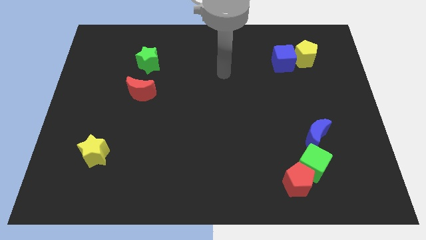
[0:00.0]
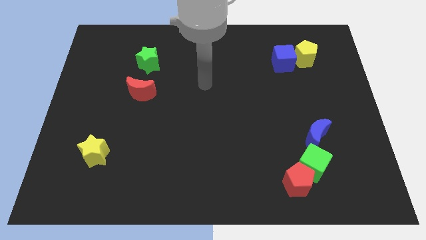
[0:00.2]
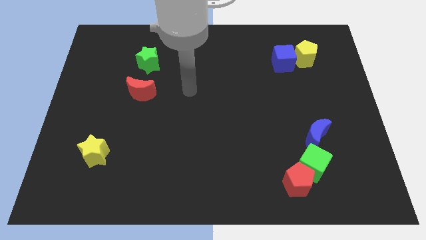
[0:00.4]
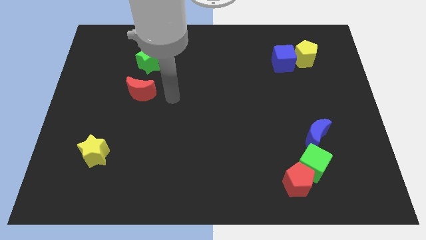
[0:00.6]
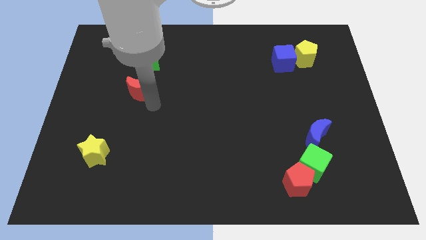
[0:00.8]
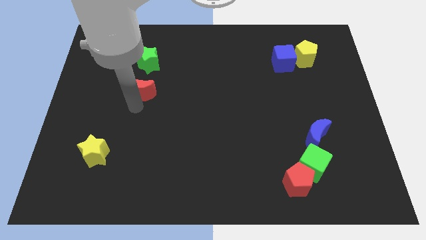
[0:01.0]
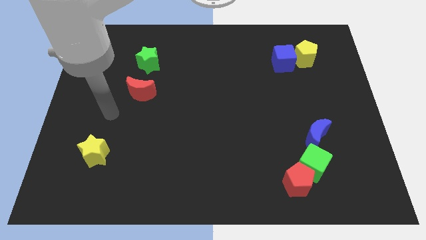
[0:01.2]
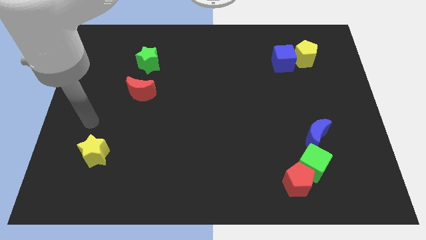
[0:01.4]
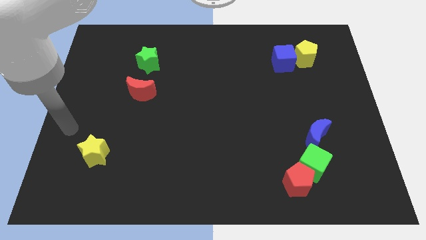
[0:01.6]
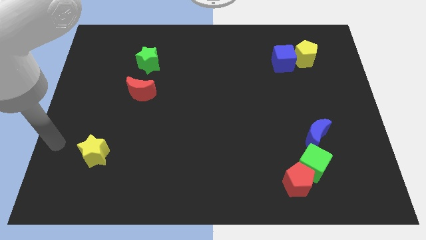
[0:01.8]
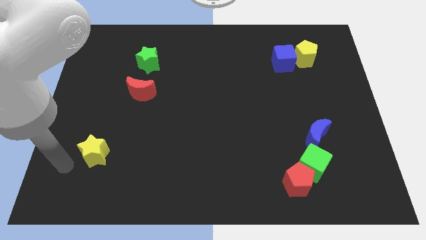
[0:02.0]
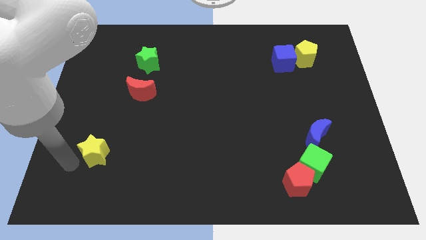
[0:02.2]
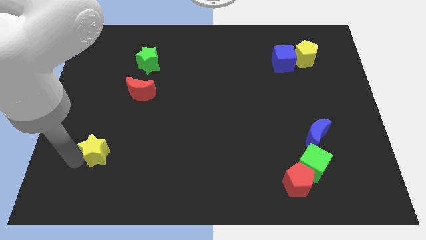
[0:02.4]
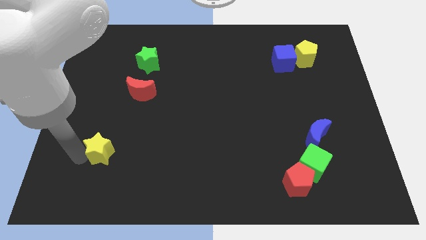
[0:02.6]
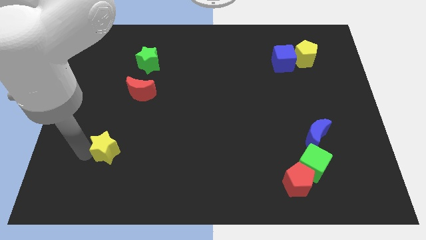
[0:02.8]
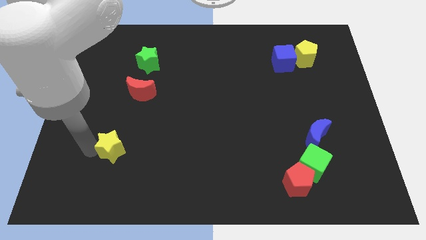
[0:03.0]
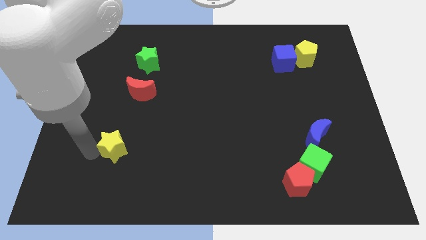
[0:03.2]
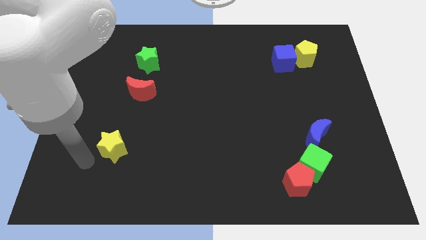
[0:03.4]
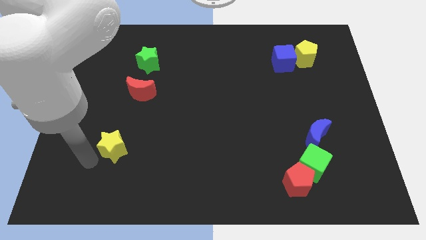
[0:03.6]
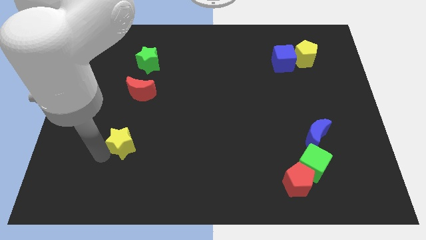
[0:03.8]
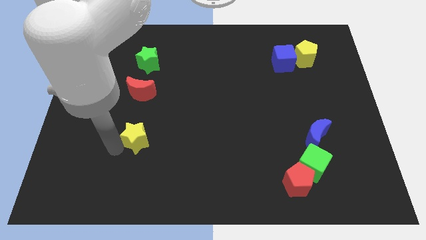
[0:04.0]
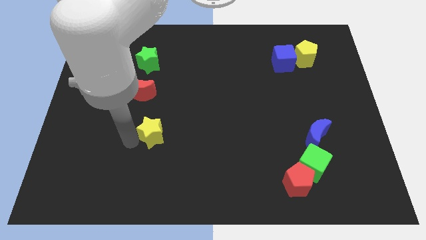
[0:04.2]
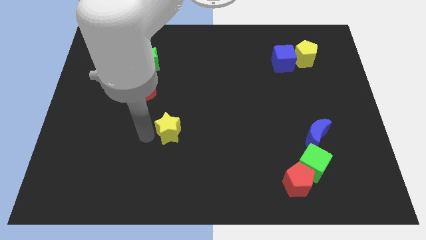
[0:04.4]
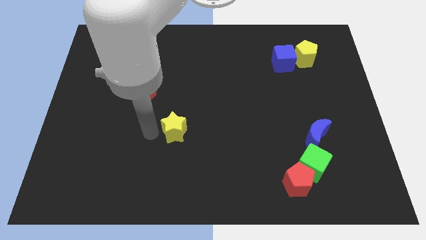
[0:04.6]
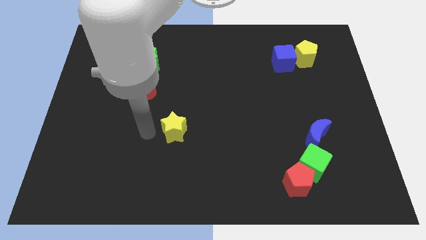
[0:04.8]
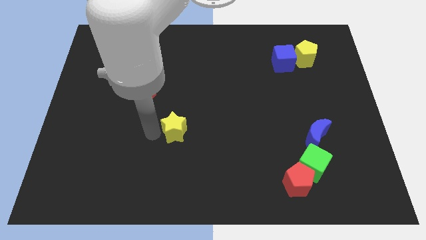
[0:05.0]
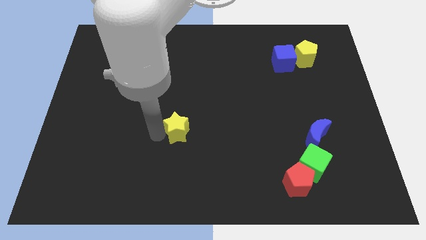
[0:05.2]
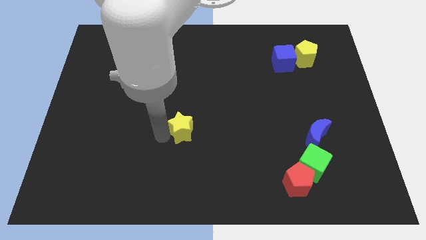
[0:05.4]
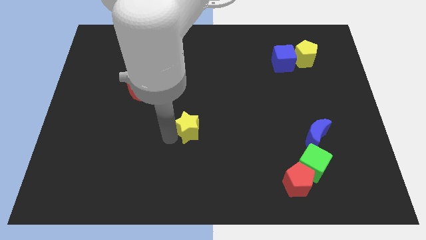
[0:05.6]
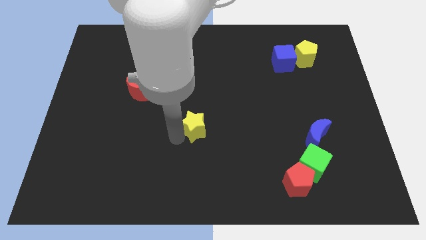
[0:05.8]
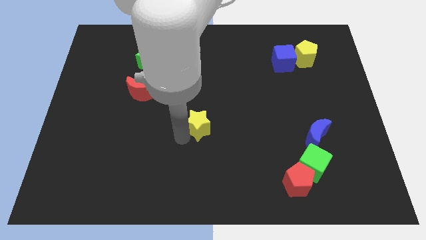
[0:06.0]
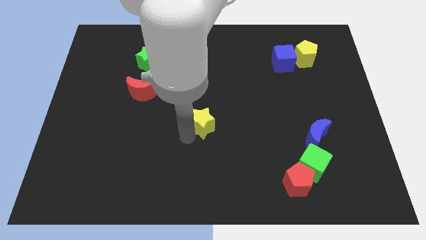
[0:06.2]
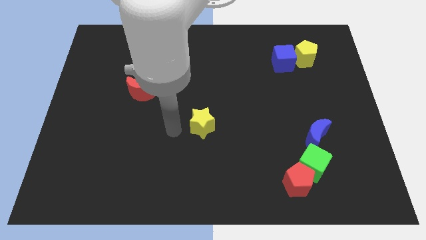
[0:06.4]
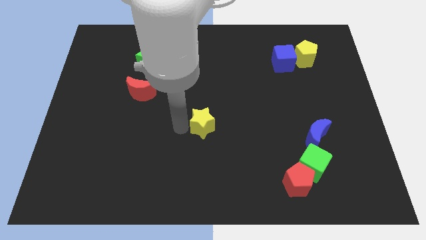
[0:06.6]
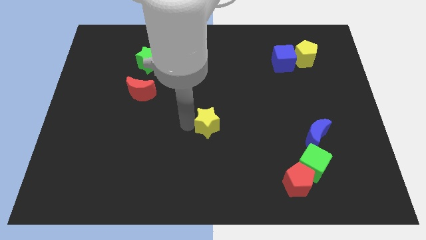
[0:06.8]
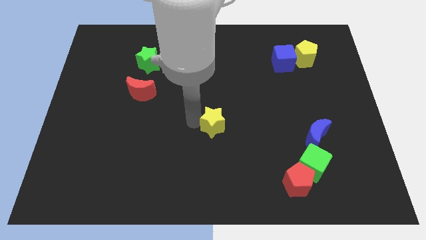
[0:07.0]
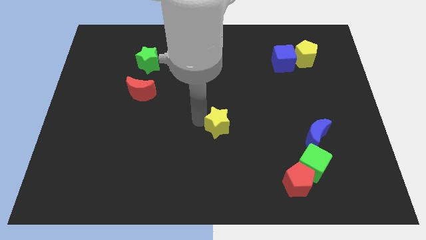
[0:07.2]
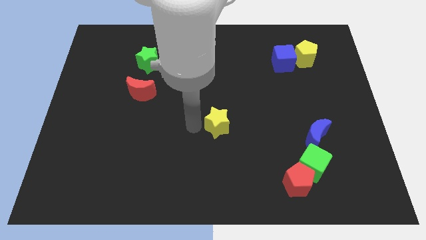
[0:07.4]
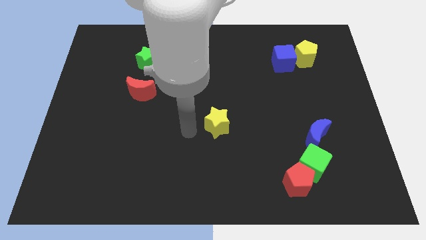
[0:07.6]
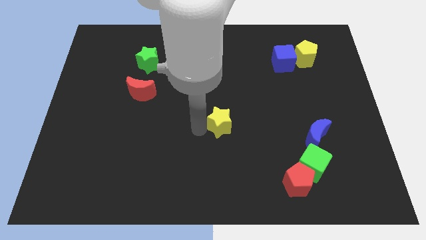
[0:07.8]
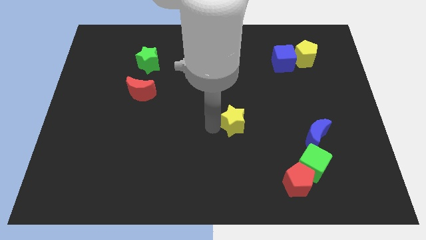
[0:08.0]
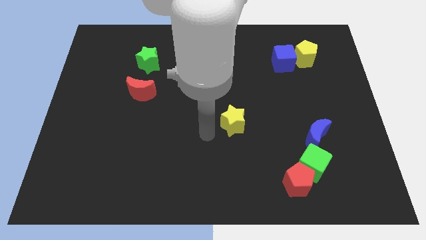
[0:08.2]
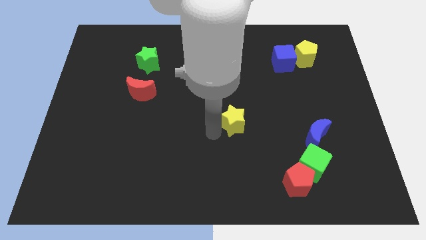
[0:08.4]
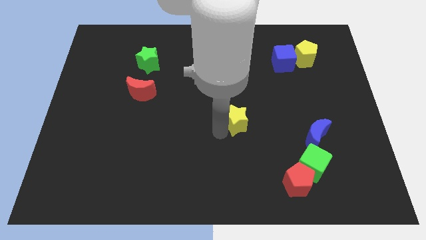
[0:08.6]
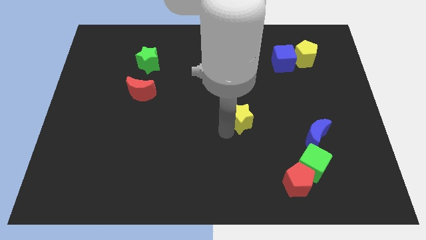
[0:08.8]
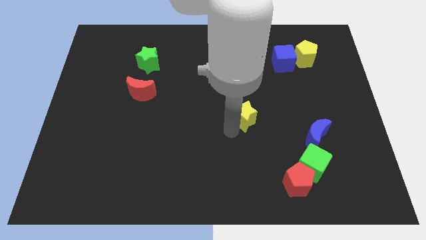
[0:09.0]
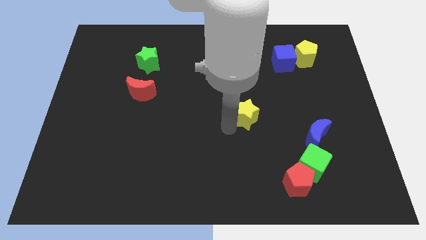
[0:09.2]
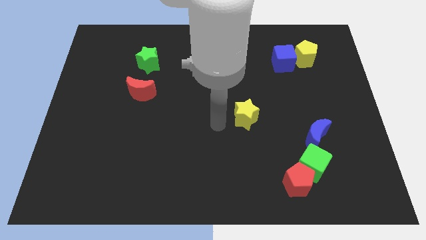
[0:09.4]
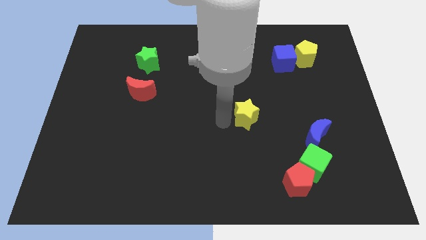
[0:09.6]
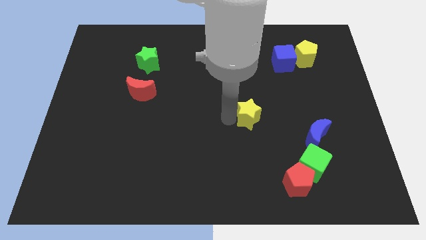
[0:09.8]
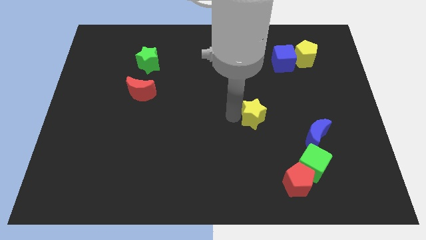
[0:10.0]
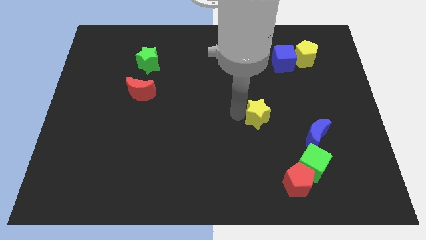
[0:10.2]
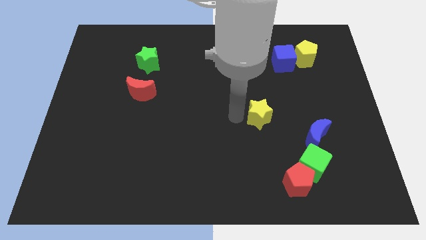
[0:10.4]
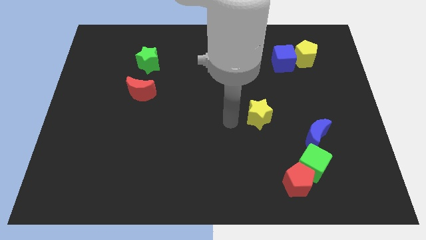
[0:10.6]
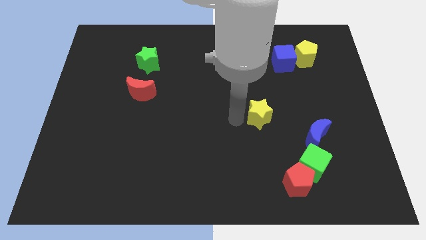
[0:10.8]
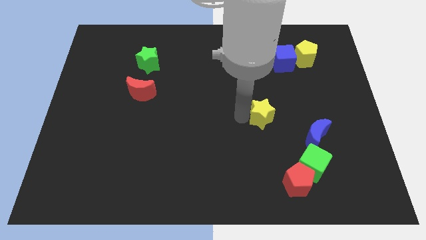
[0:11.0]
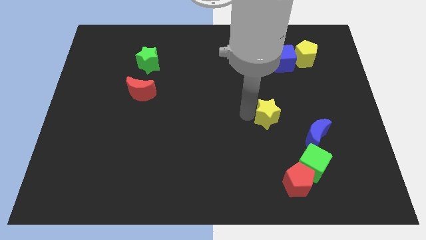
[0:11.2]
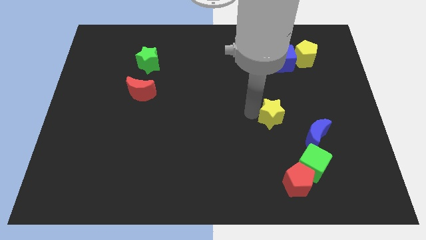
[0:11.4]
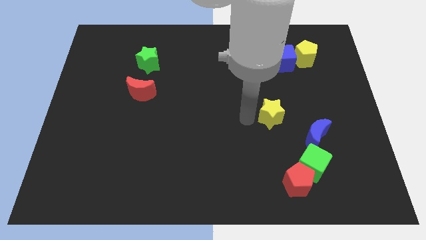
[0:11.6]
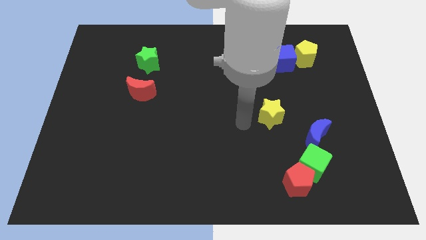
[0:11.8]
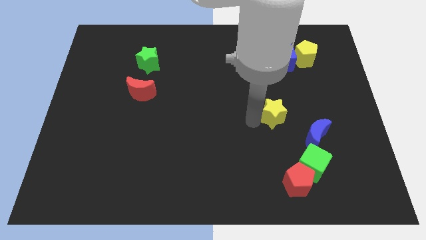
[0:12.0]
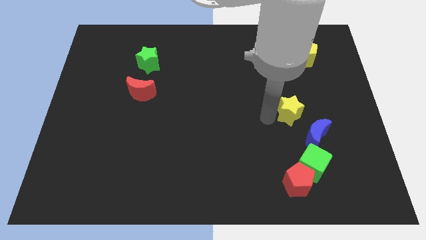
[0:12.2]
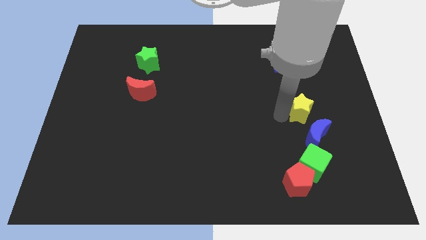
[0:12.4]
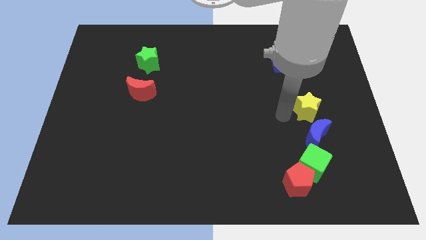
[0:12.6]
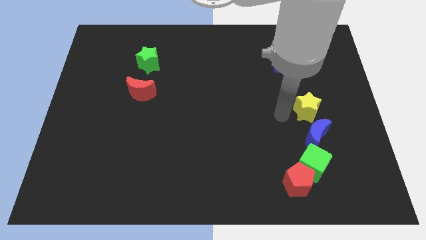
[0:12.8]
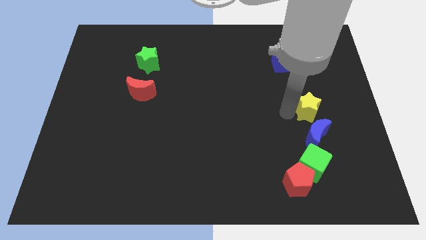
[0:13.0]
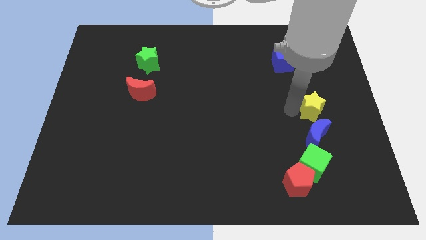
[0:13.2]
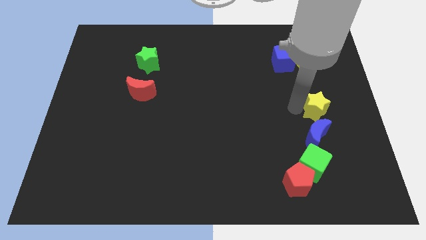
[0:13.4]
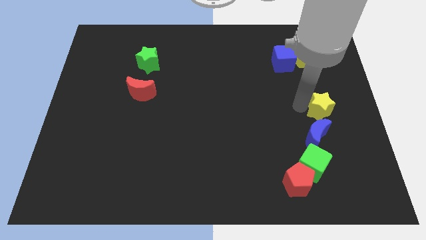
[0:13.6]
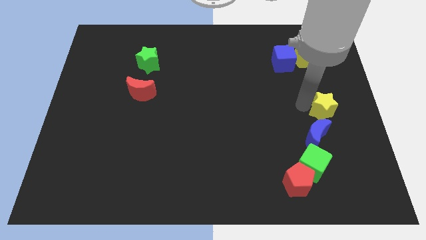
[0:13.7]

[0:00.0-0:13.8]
move the yellow star to the center right
